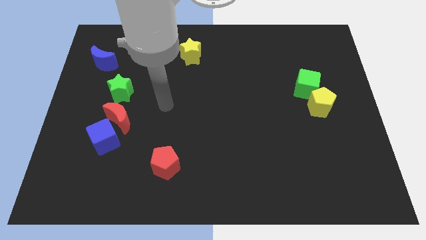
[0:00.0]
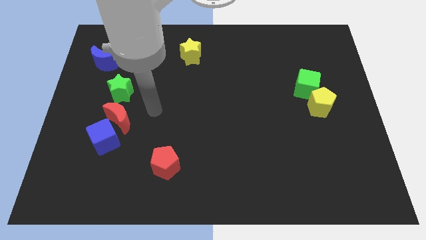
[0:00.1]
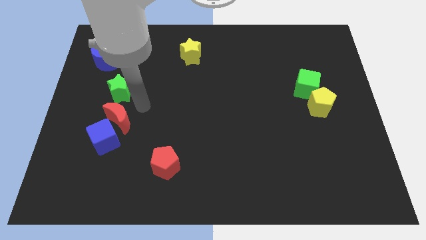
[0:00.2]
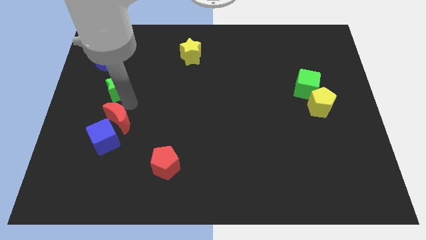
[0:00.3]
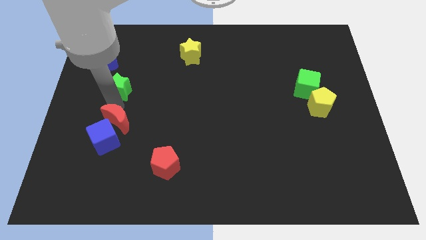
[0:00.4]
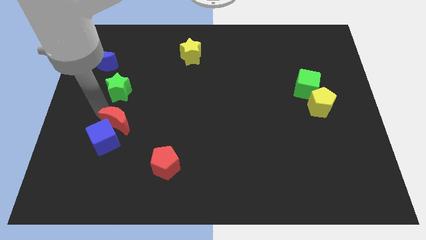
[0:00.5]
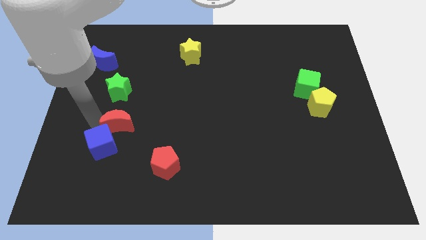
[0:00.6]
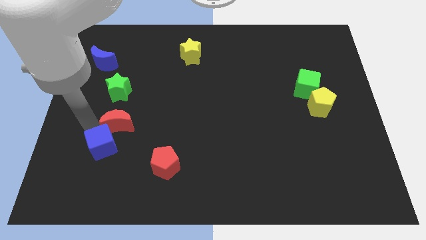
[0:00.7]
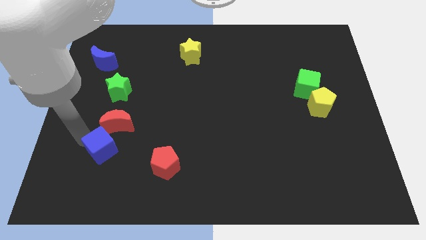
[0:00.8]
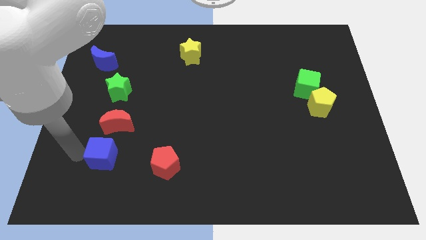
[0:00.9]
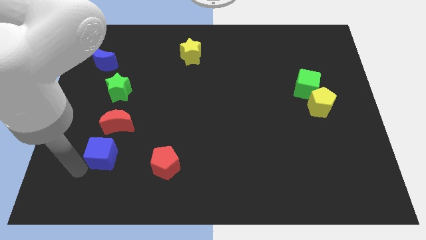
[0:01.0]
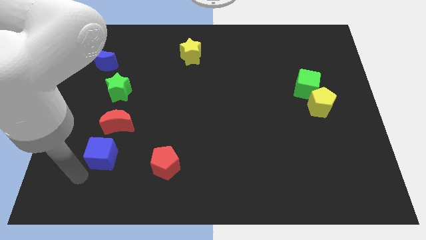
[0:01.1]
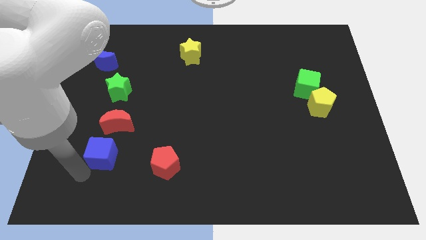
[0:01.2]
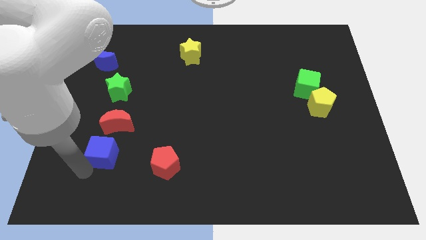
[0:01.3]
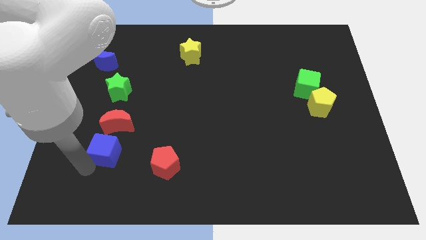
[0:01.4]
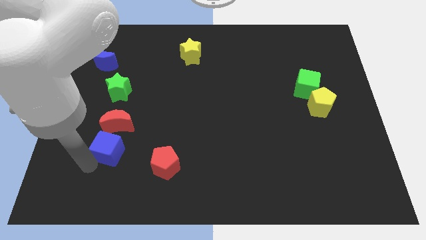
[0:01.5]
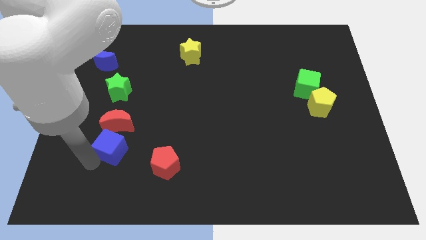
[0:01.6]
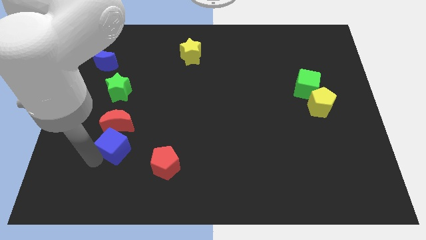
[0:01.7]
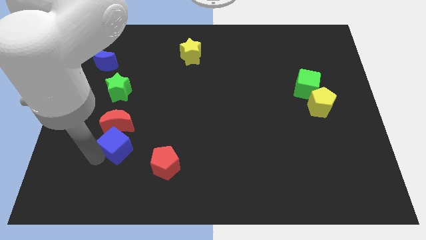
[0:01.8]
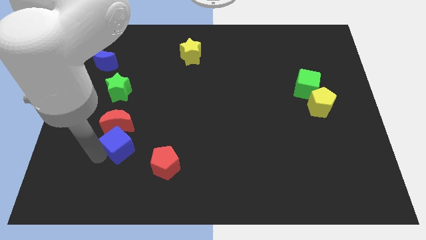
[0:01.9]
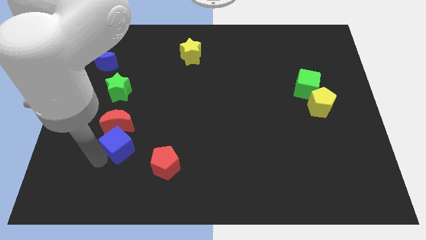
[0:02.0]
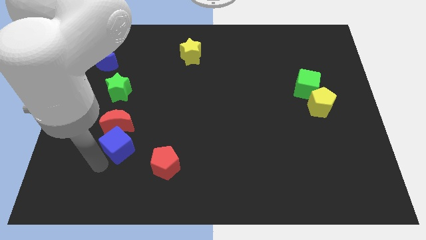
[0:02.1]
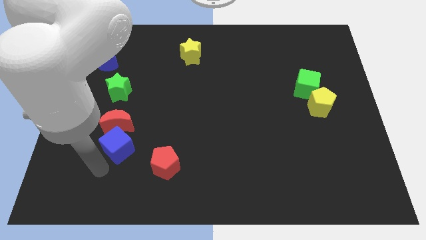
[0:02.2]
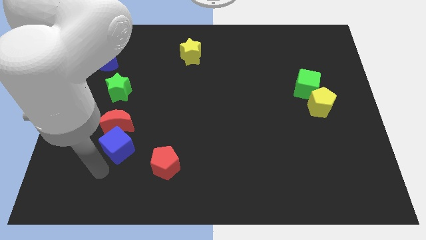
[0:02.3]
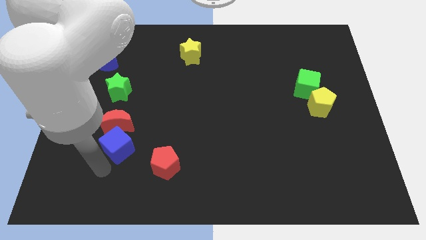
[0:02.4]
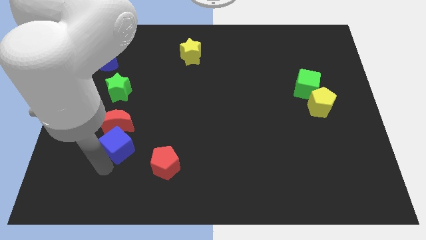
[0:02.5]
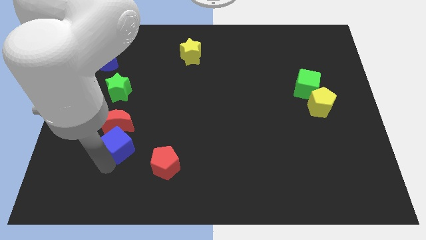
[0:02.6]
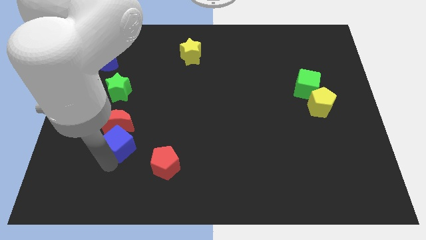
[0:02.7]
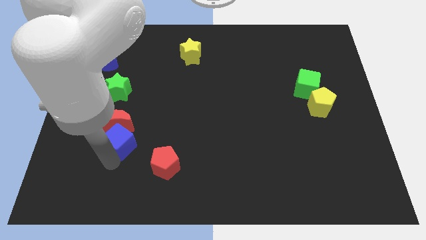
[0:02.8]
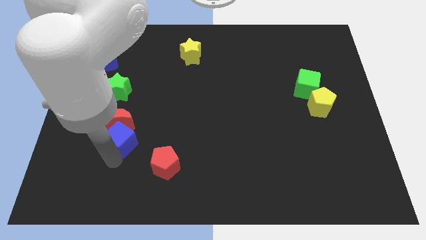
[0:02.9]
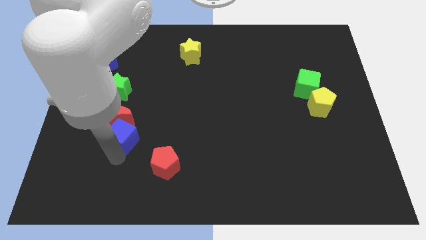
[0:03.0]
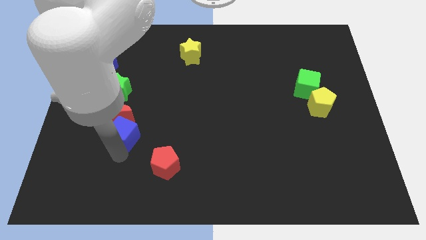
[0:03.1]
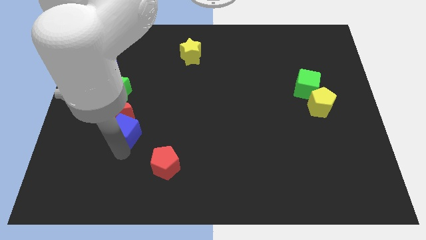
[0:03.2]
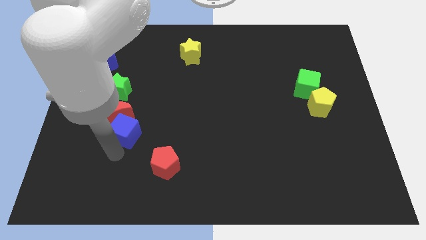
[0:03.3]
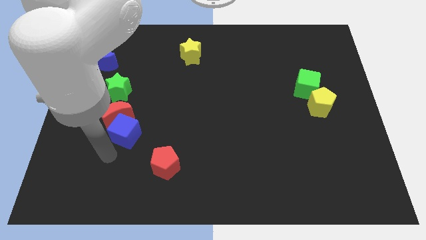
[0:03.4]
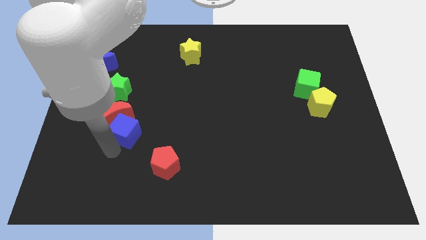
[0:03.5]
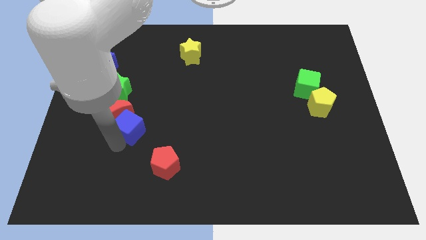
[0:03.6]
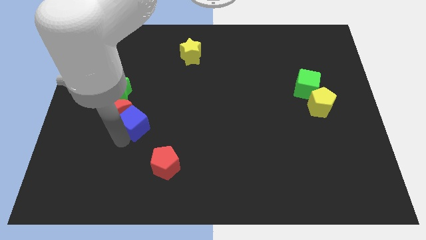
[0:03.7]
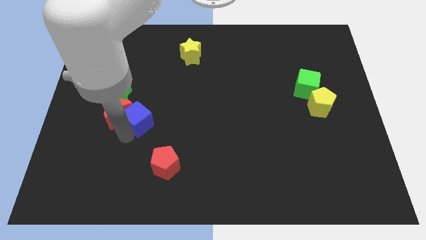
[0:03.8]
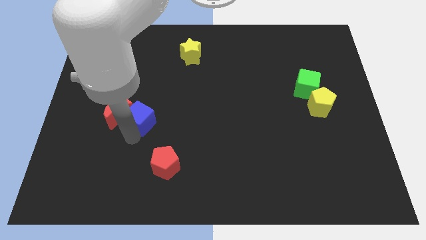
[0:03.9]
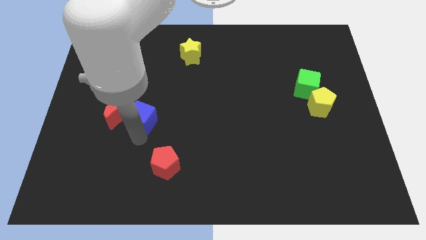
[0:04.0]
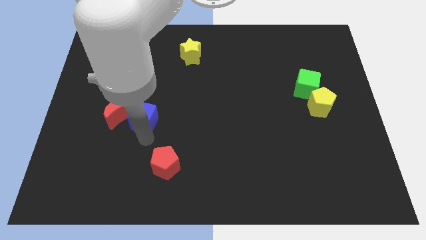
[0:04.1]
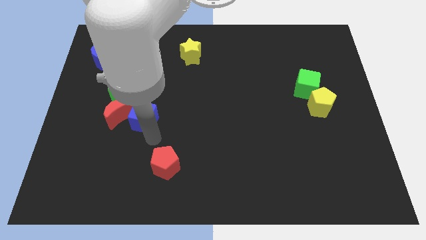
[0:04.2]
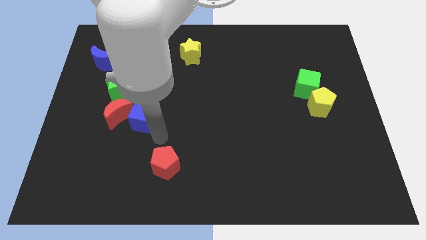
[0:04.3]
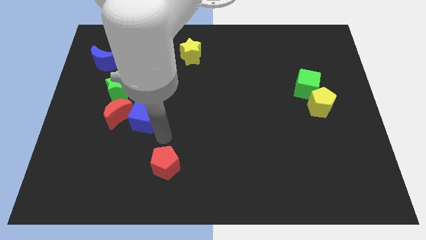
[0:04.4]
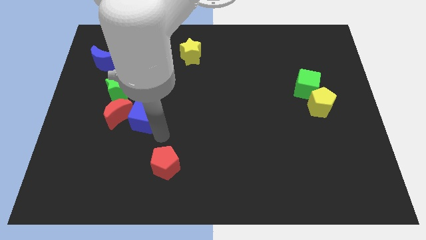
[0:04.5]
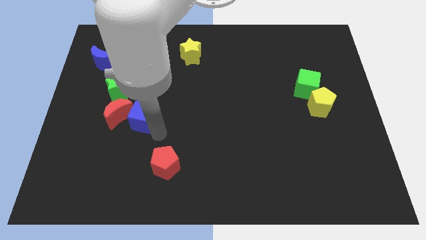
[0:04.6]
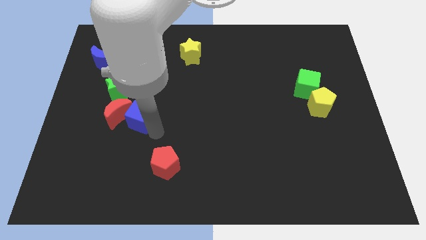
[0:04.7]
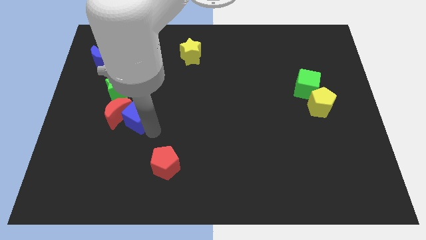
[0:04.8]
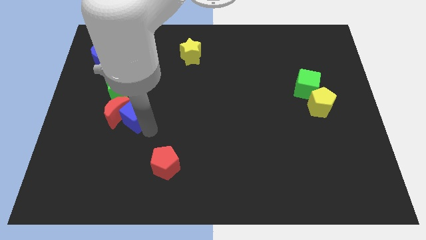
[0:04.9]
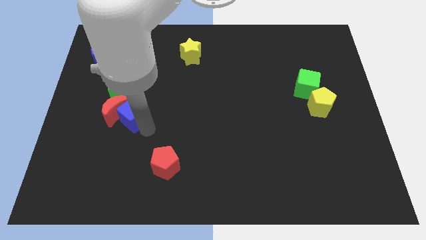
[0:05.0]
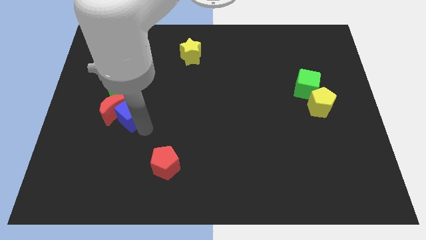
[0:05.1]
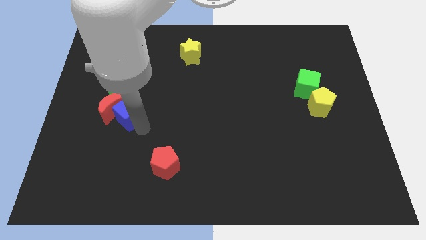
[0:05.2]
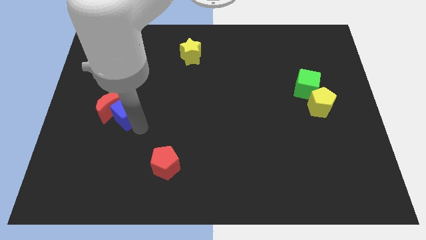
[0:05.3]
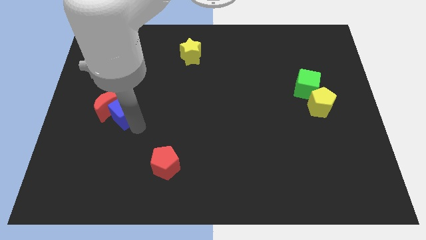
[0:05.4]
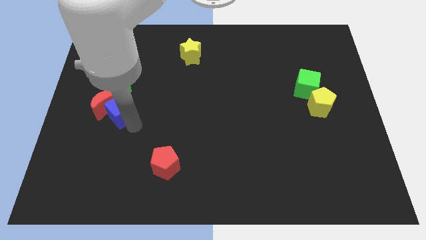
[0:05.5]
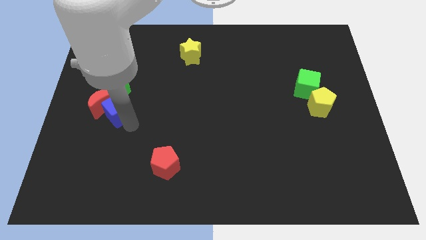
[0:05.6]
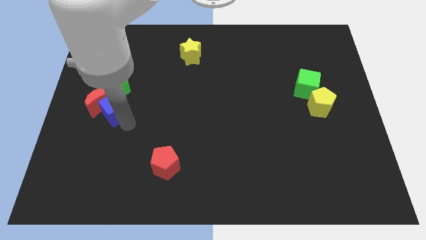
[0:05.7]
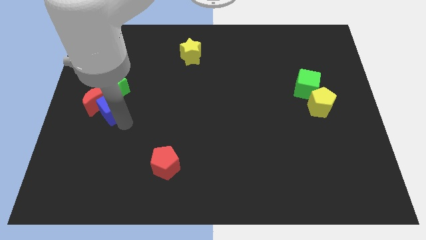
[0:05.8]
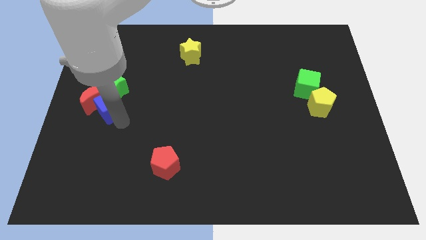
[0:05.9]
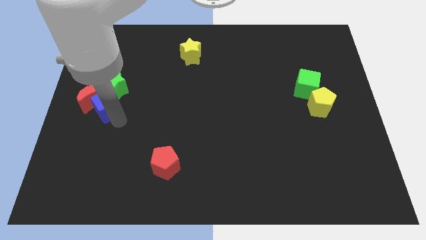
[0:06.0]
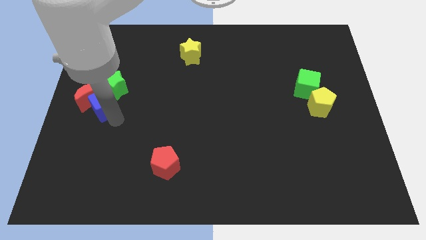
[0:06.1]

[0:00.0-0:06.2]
push the blue cube to the green star

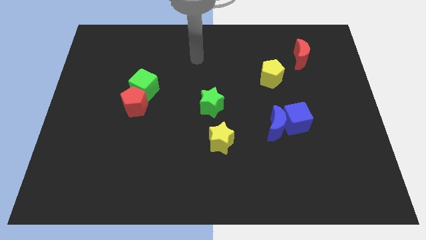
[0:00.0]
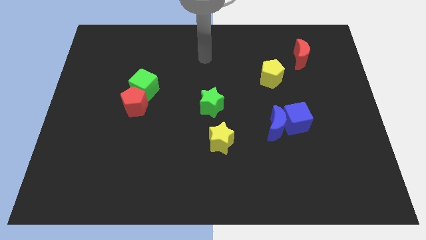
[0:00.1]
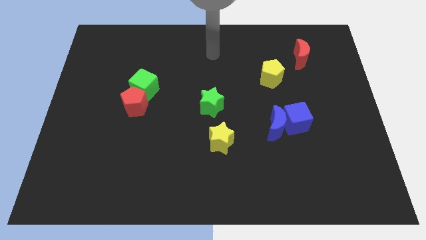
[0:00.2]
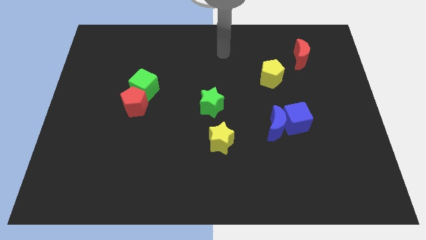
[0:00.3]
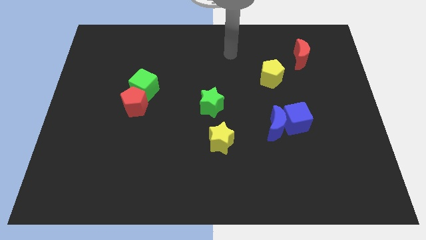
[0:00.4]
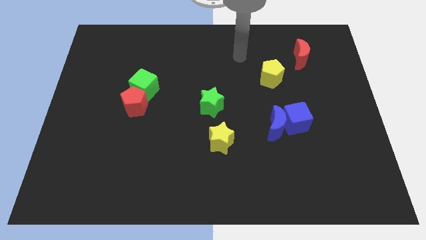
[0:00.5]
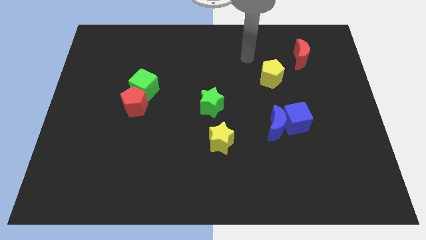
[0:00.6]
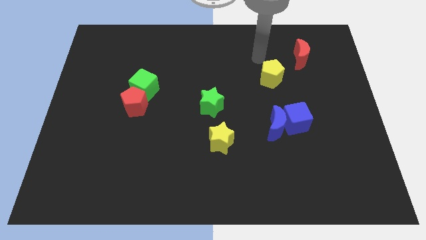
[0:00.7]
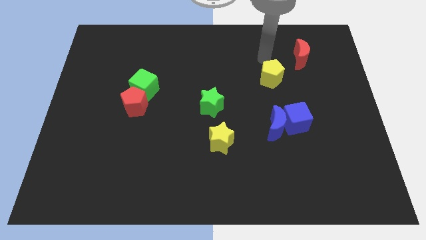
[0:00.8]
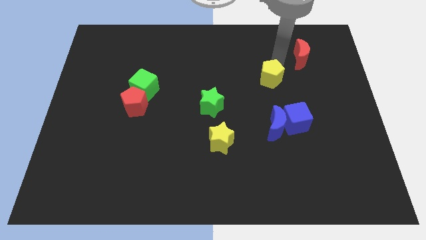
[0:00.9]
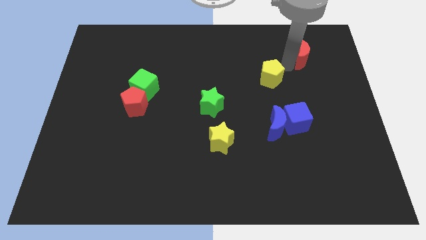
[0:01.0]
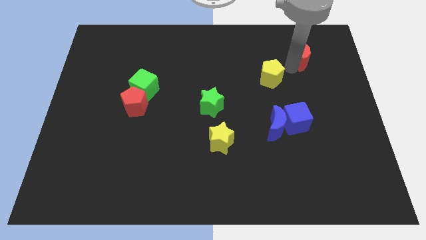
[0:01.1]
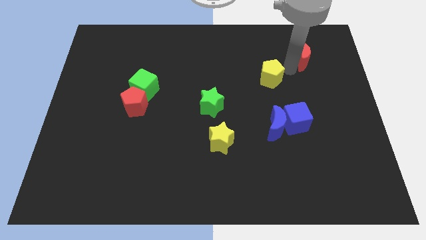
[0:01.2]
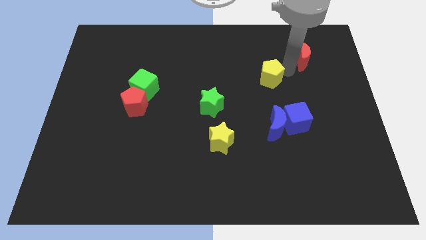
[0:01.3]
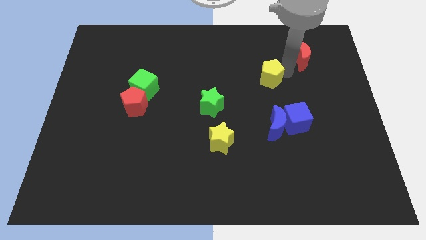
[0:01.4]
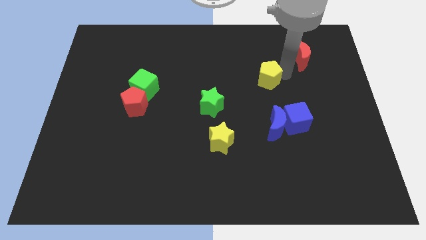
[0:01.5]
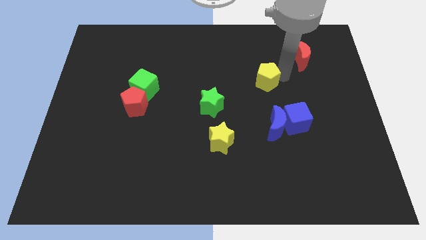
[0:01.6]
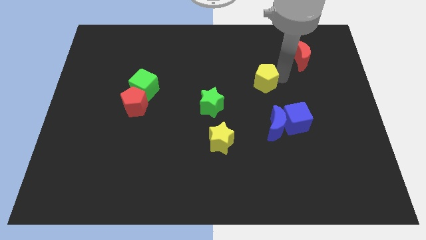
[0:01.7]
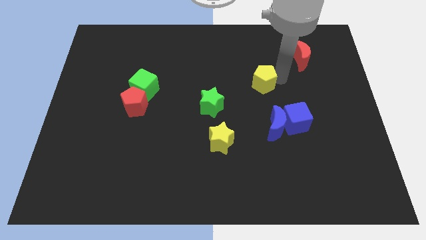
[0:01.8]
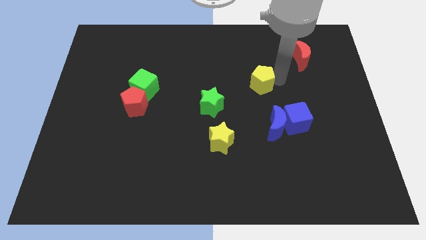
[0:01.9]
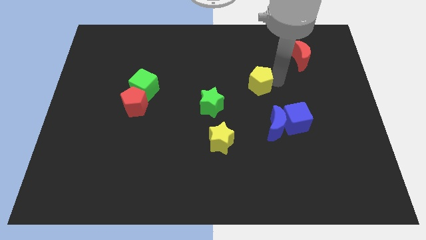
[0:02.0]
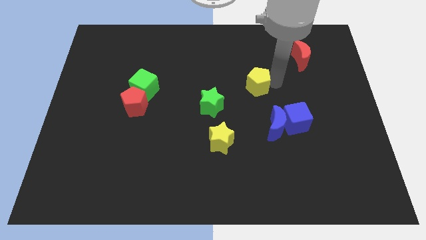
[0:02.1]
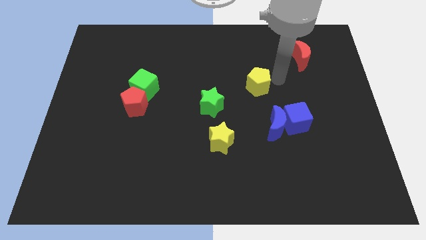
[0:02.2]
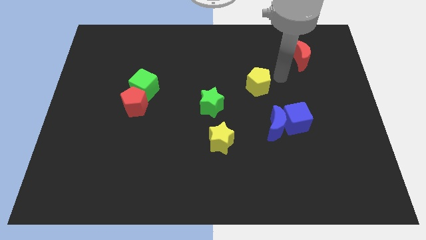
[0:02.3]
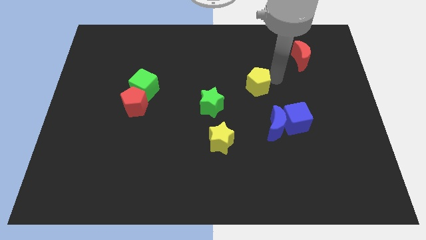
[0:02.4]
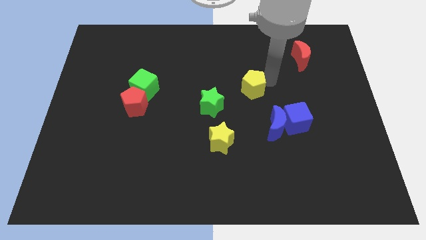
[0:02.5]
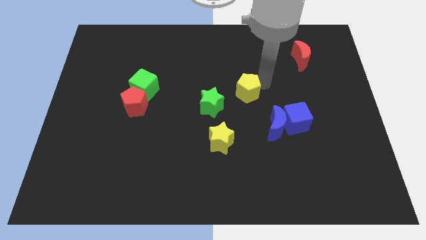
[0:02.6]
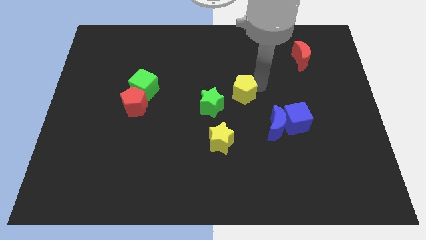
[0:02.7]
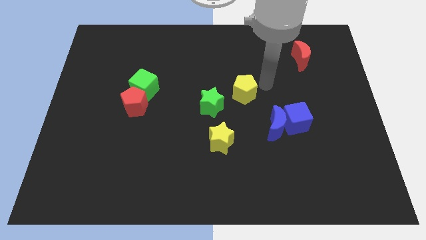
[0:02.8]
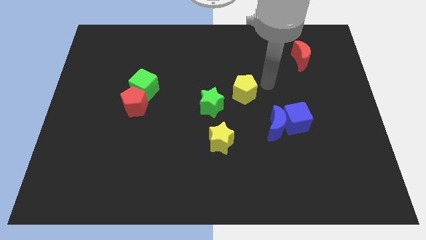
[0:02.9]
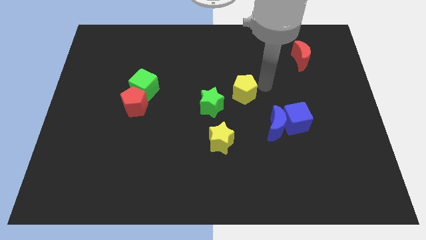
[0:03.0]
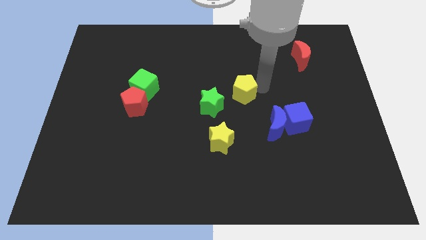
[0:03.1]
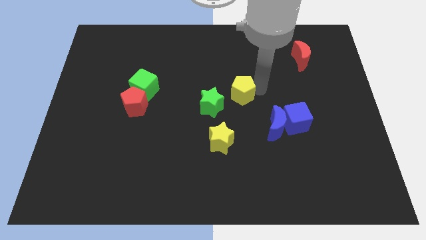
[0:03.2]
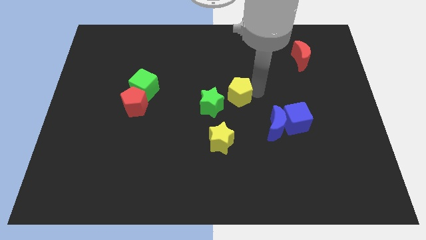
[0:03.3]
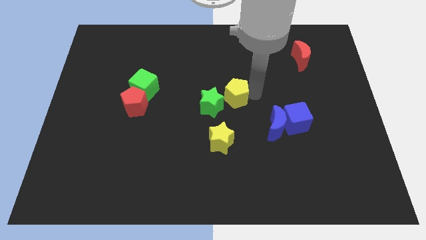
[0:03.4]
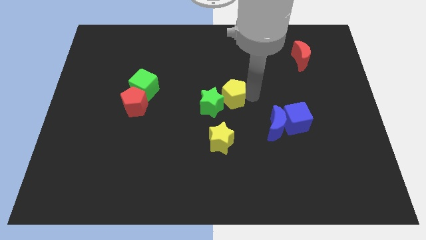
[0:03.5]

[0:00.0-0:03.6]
slide the yellow pentagon towards the green star
